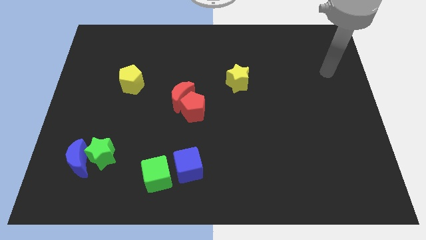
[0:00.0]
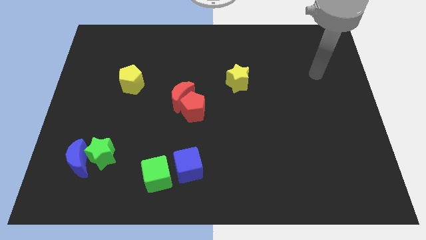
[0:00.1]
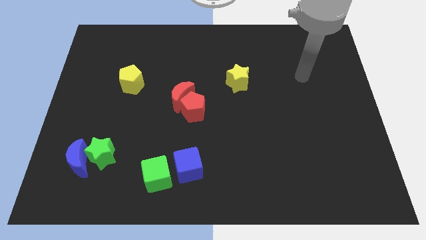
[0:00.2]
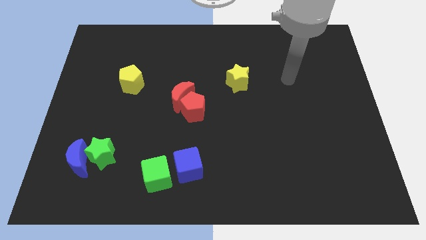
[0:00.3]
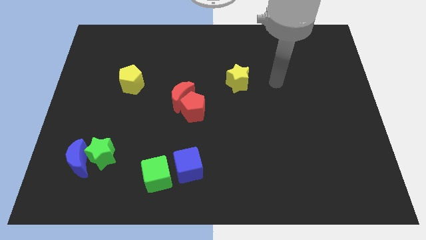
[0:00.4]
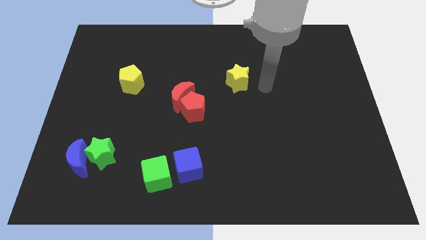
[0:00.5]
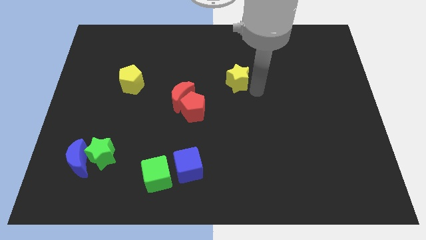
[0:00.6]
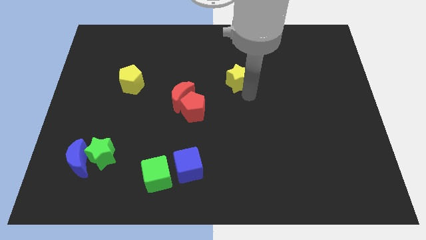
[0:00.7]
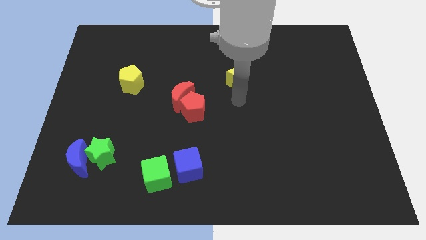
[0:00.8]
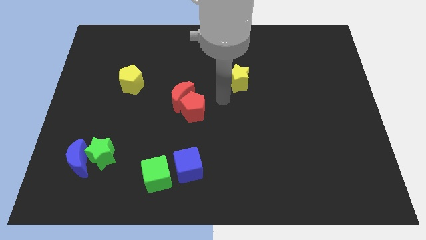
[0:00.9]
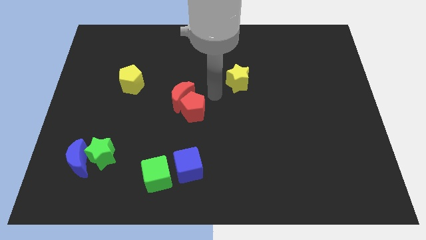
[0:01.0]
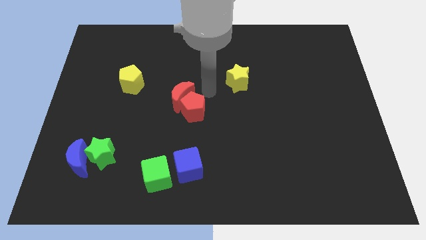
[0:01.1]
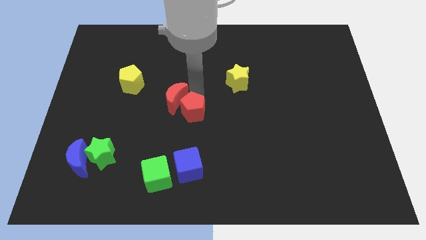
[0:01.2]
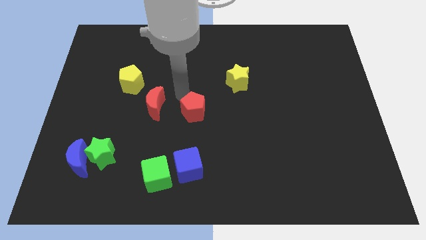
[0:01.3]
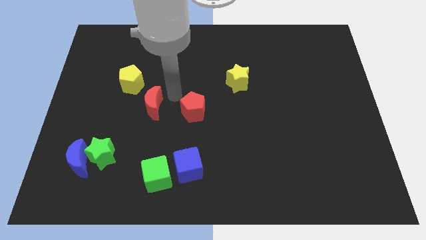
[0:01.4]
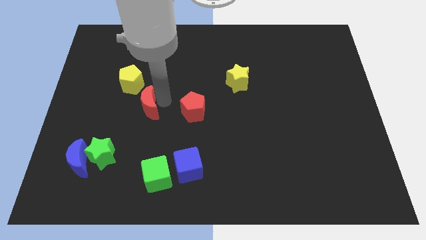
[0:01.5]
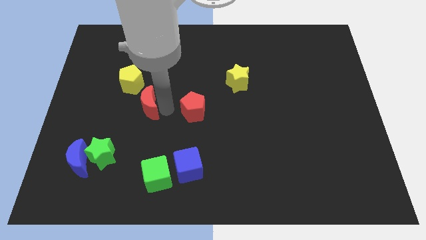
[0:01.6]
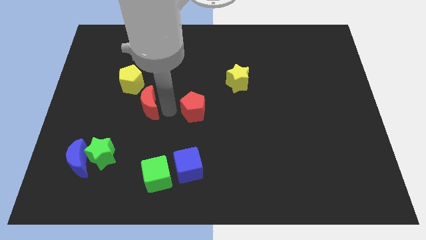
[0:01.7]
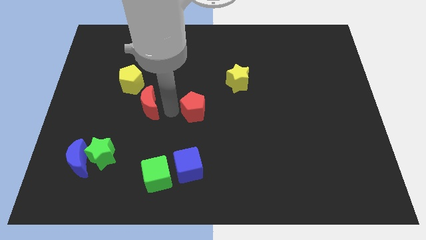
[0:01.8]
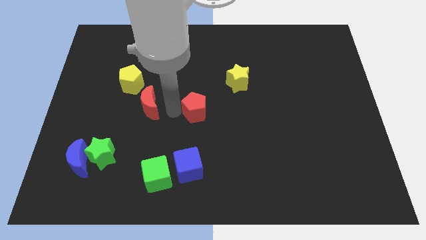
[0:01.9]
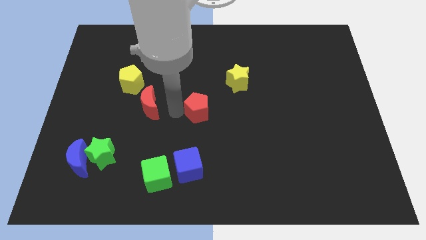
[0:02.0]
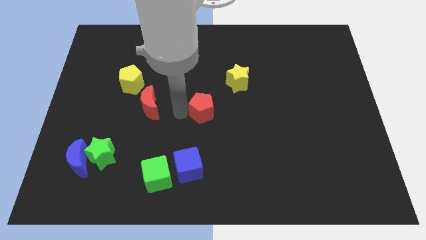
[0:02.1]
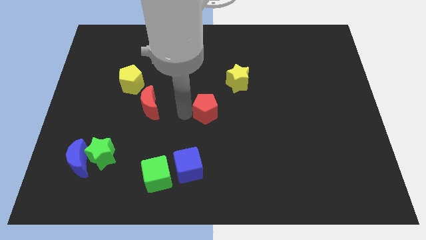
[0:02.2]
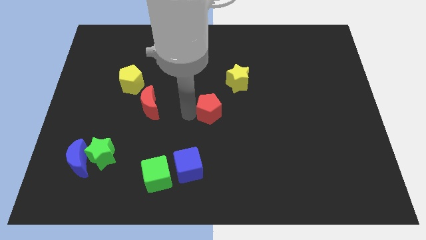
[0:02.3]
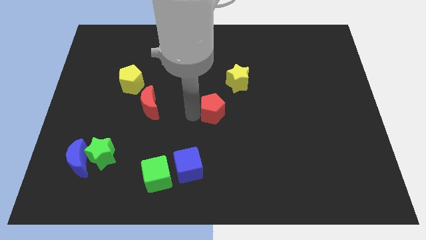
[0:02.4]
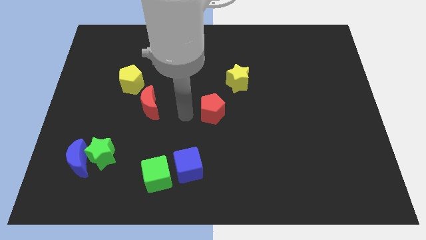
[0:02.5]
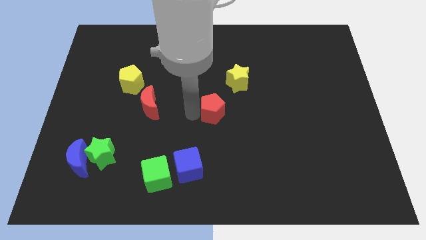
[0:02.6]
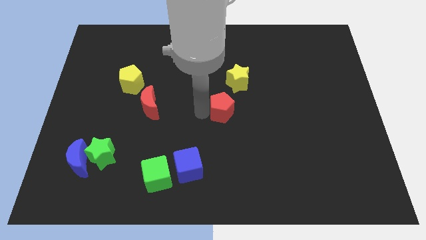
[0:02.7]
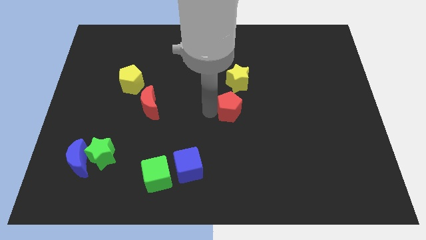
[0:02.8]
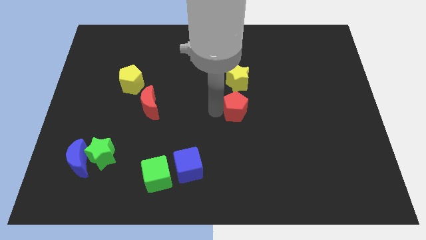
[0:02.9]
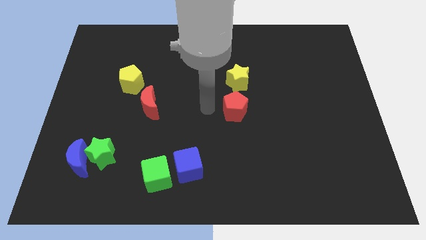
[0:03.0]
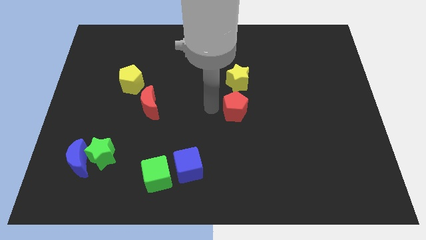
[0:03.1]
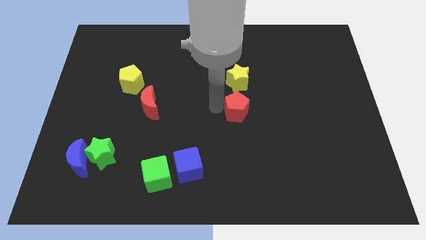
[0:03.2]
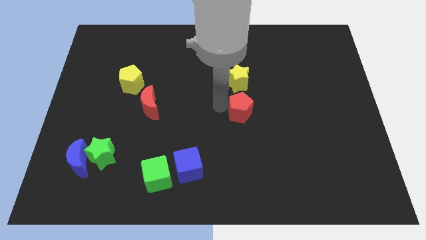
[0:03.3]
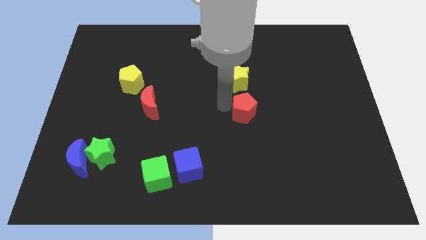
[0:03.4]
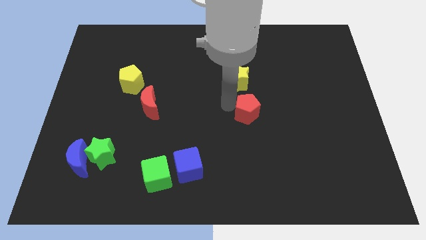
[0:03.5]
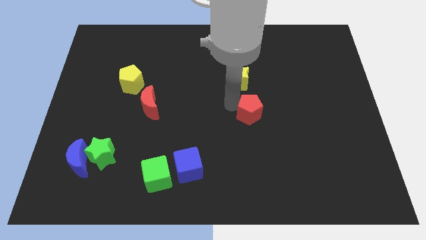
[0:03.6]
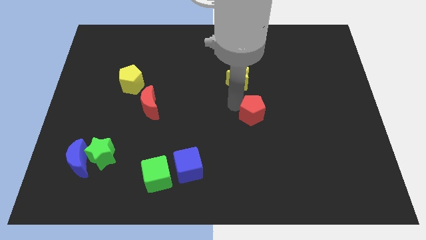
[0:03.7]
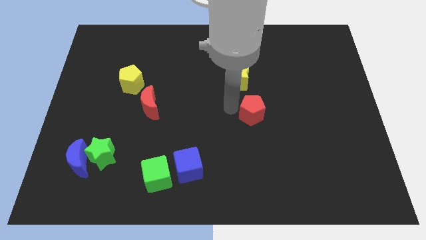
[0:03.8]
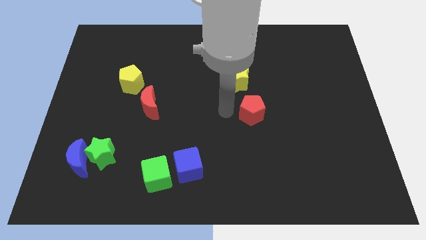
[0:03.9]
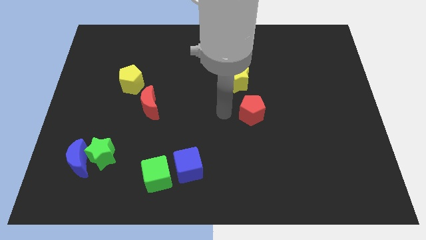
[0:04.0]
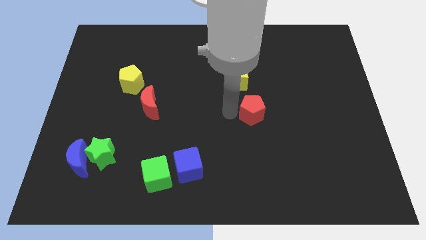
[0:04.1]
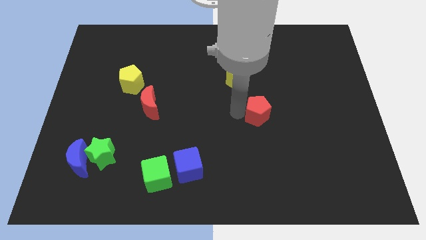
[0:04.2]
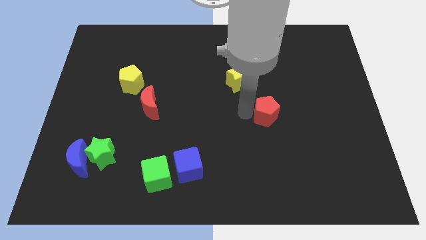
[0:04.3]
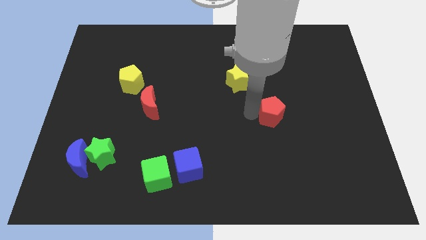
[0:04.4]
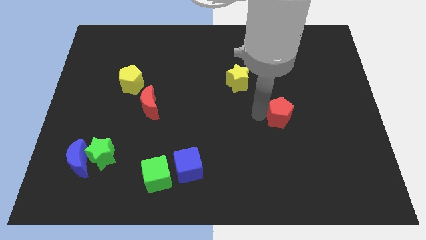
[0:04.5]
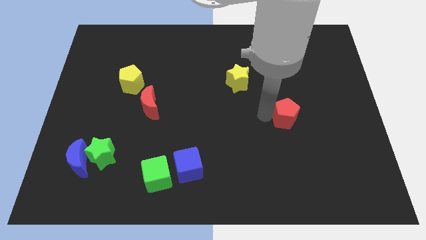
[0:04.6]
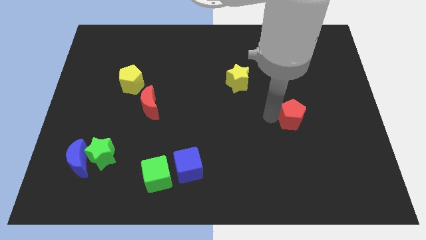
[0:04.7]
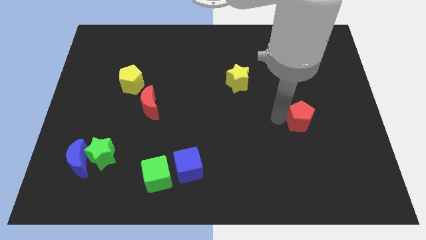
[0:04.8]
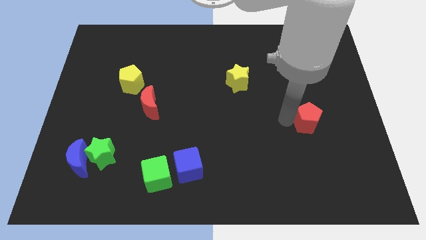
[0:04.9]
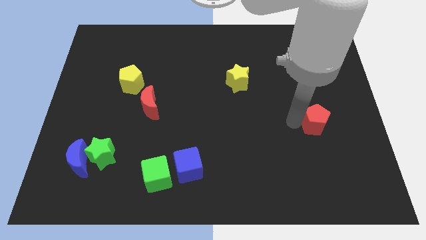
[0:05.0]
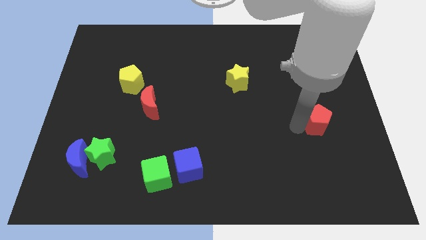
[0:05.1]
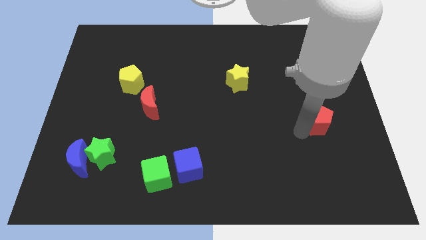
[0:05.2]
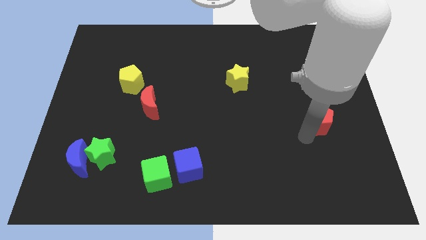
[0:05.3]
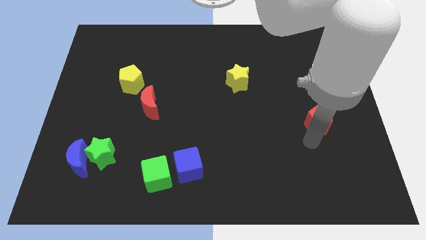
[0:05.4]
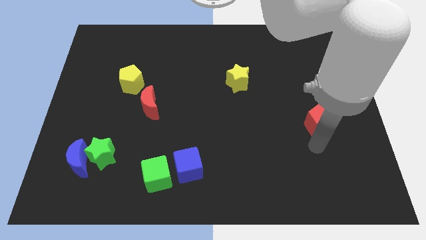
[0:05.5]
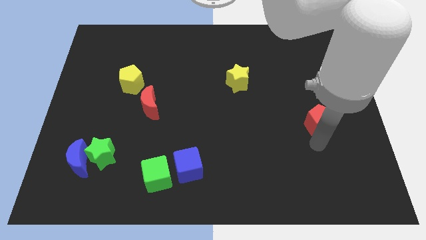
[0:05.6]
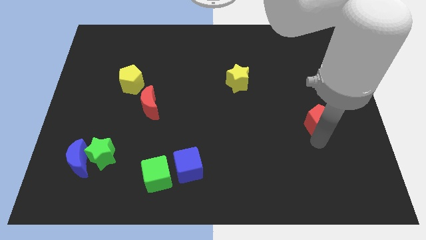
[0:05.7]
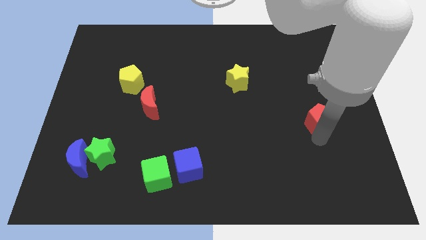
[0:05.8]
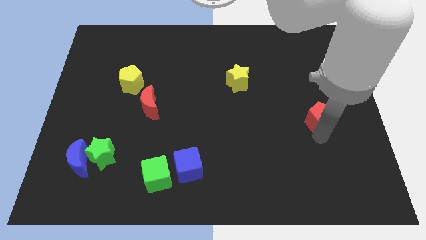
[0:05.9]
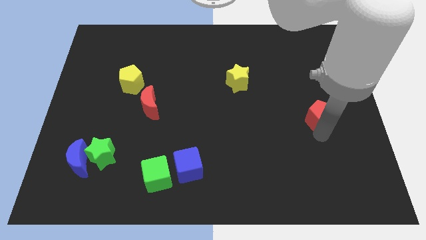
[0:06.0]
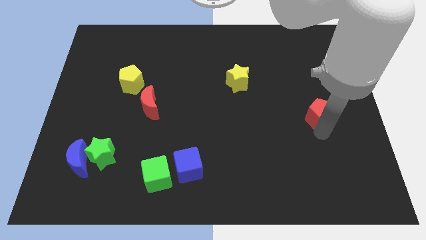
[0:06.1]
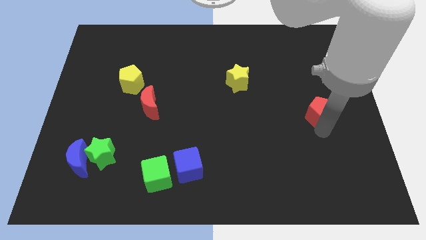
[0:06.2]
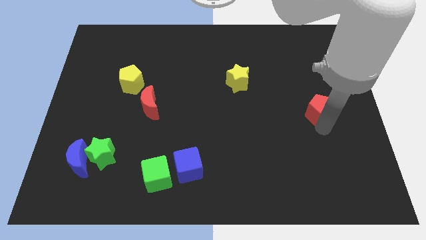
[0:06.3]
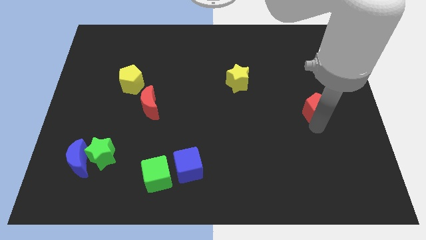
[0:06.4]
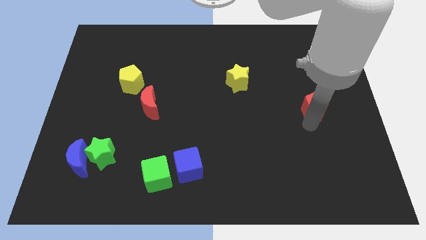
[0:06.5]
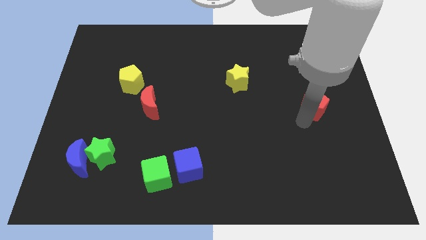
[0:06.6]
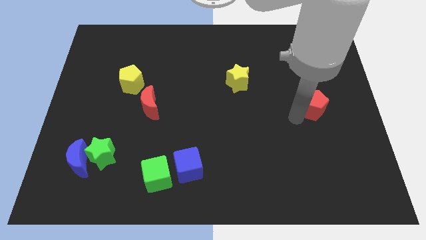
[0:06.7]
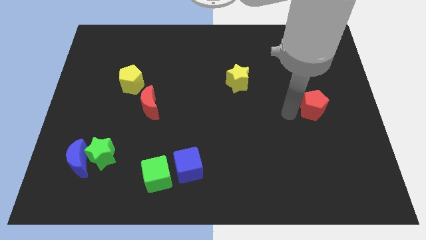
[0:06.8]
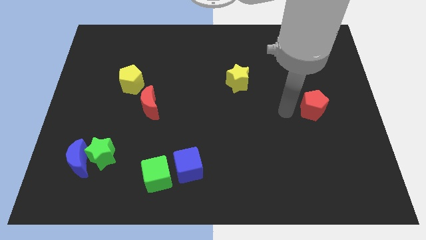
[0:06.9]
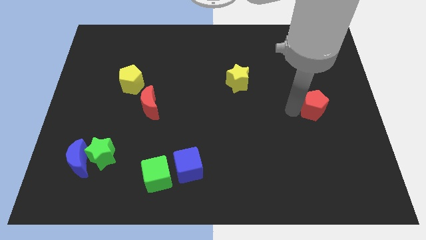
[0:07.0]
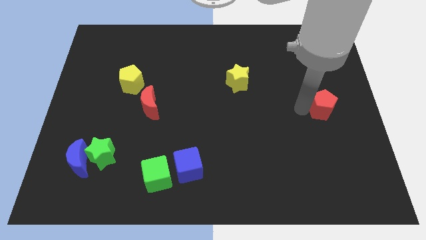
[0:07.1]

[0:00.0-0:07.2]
push the red pentagon to the right side of the board
